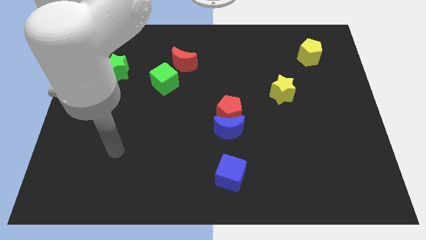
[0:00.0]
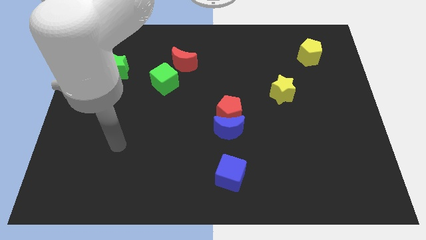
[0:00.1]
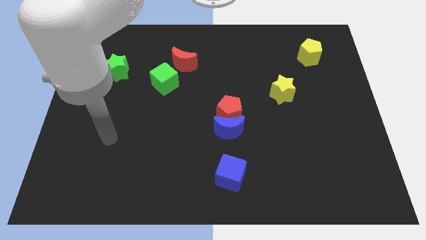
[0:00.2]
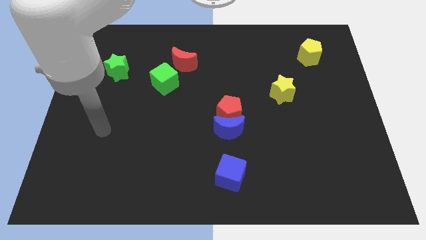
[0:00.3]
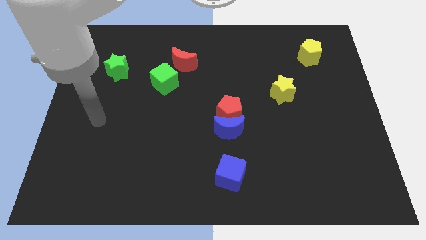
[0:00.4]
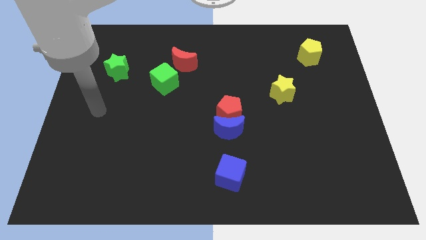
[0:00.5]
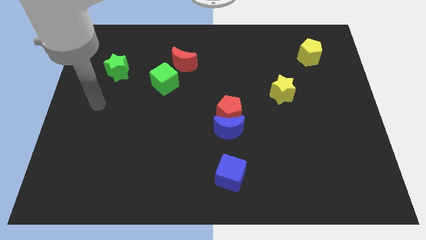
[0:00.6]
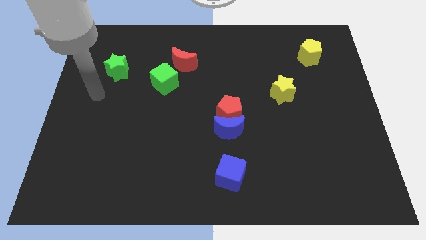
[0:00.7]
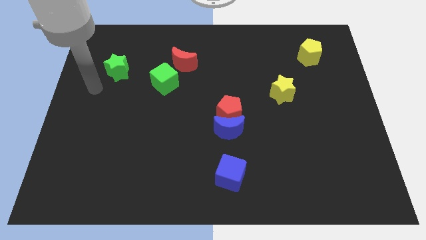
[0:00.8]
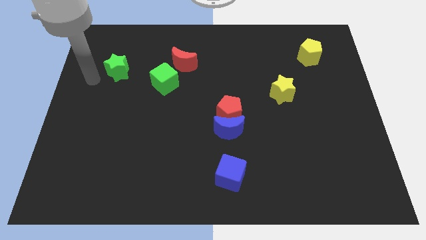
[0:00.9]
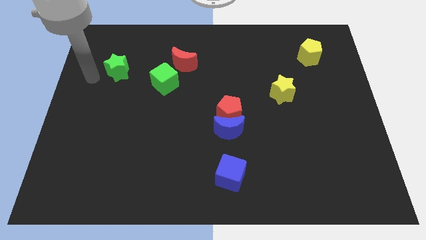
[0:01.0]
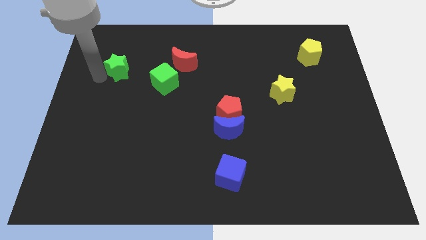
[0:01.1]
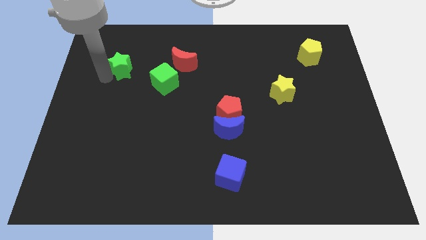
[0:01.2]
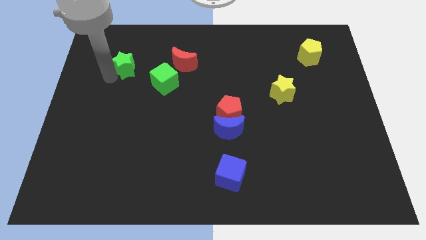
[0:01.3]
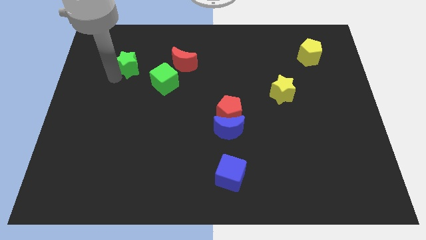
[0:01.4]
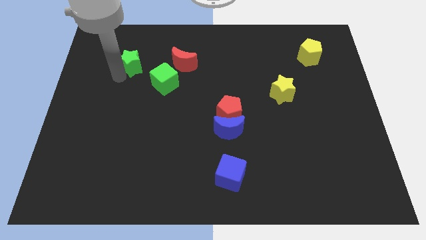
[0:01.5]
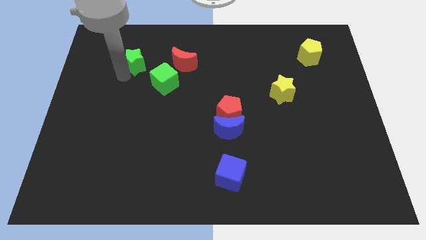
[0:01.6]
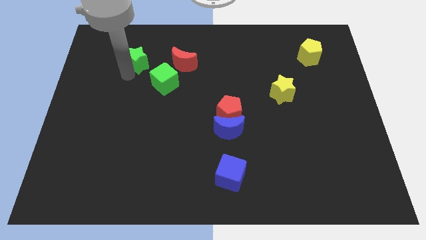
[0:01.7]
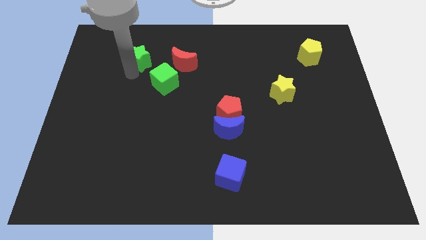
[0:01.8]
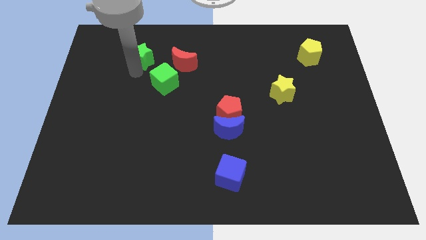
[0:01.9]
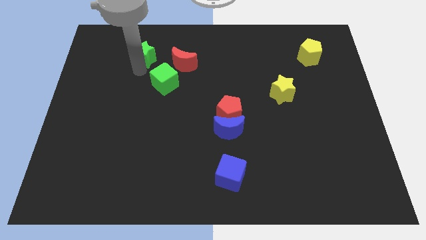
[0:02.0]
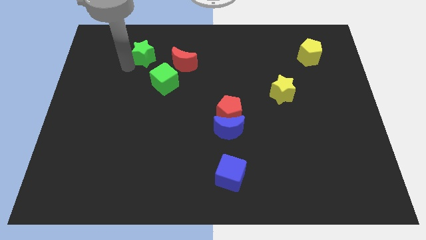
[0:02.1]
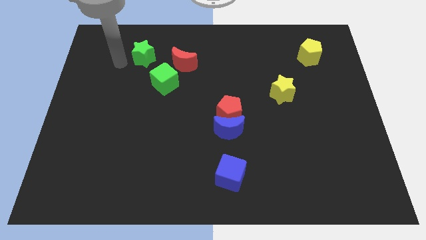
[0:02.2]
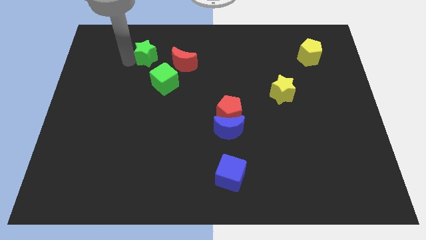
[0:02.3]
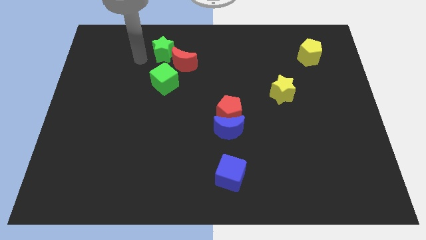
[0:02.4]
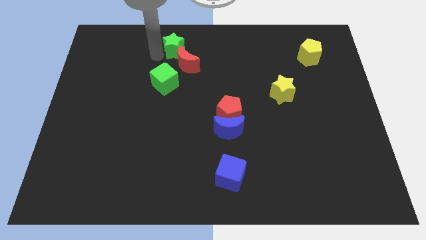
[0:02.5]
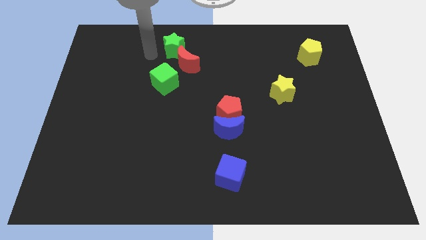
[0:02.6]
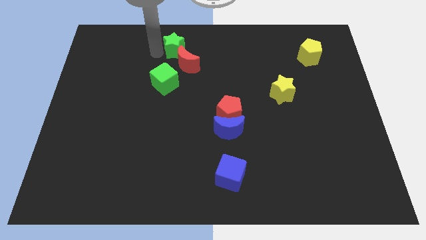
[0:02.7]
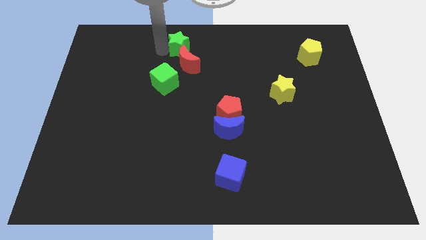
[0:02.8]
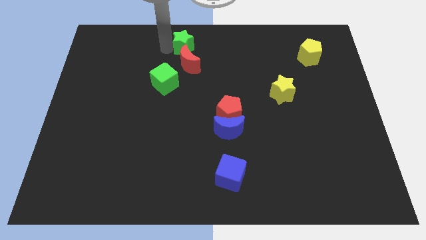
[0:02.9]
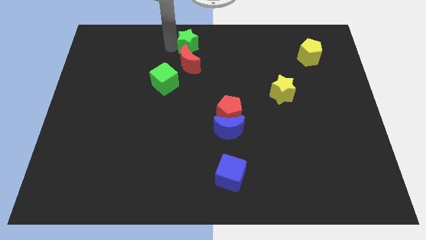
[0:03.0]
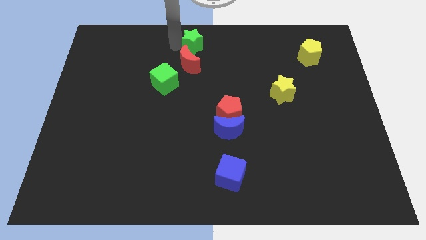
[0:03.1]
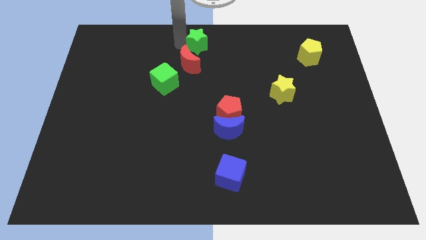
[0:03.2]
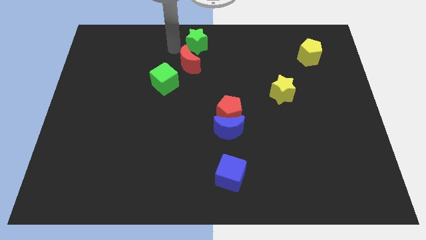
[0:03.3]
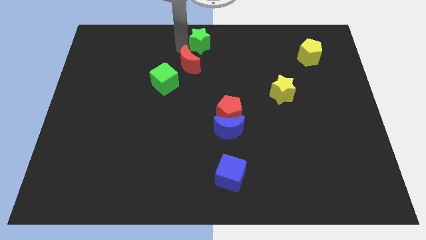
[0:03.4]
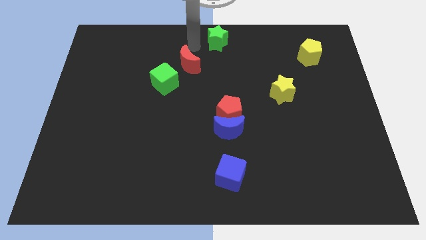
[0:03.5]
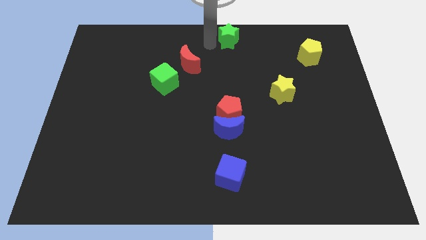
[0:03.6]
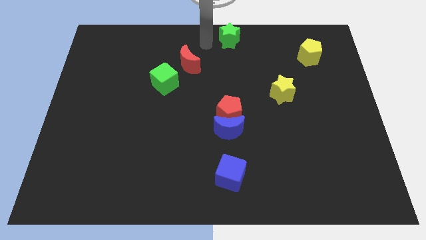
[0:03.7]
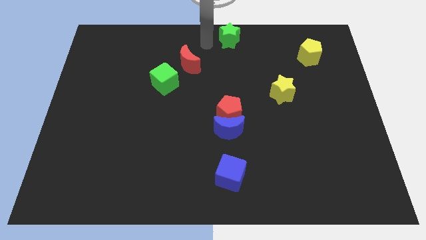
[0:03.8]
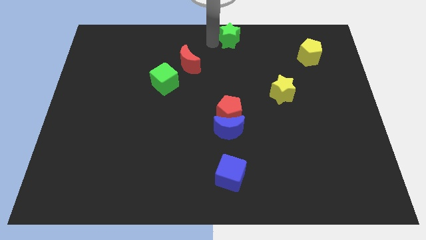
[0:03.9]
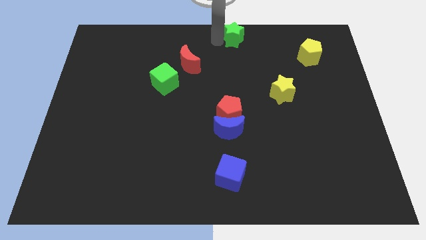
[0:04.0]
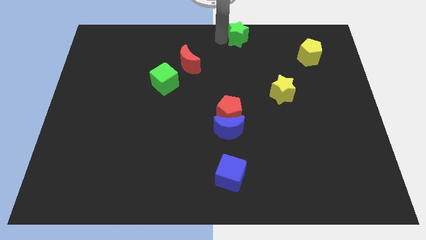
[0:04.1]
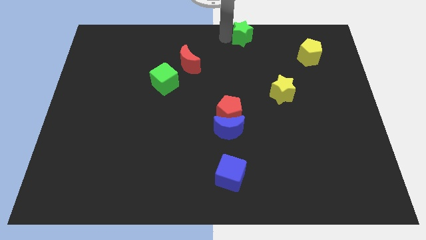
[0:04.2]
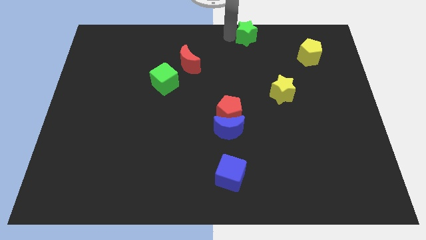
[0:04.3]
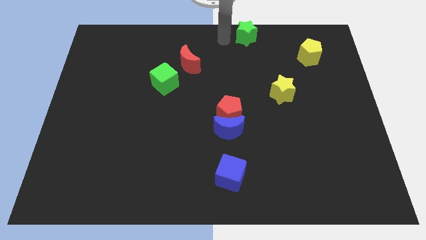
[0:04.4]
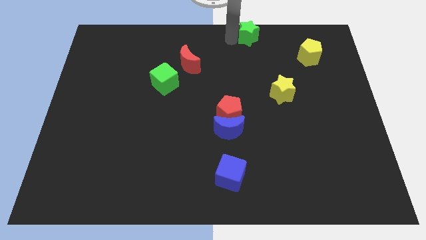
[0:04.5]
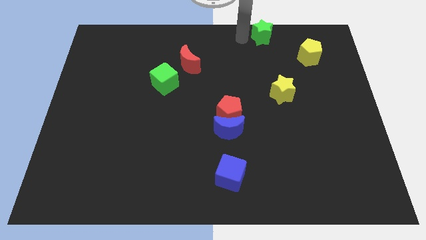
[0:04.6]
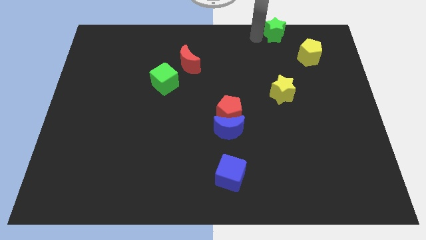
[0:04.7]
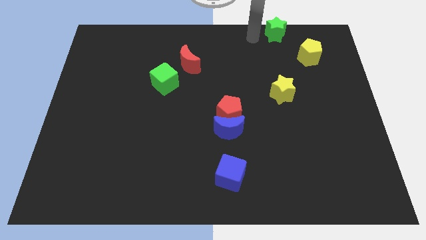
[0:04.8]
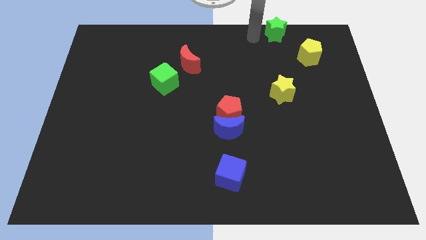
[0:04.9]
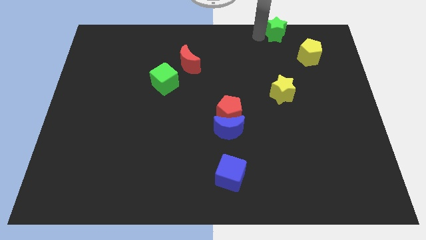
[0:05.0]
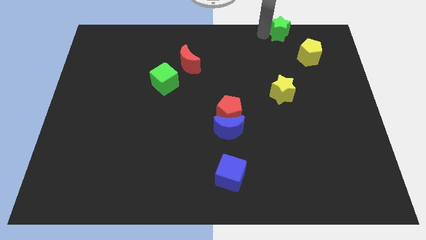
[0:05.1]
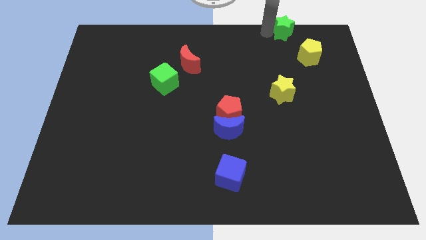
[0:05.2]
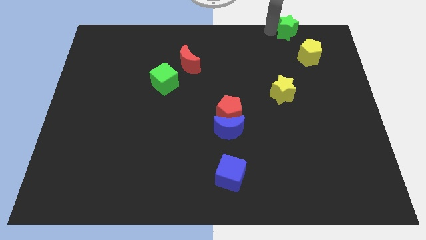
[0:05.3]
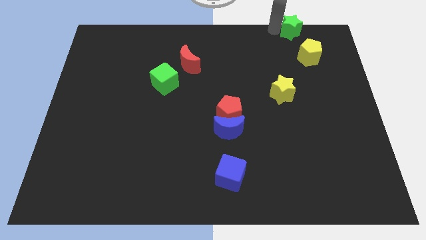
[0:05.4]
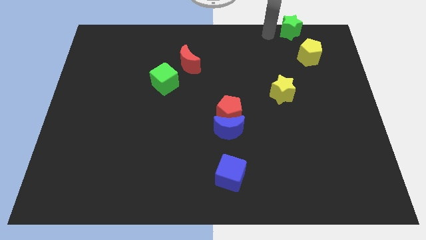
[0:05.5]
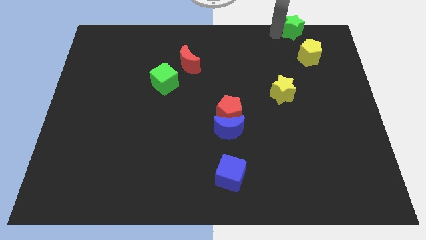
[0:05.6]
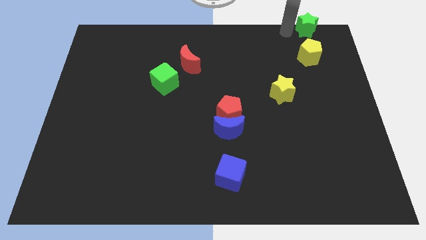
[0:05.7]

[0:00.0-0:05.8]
slide the green star to the top right of the board

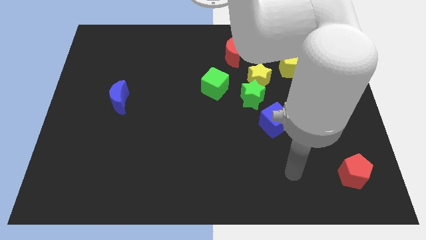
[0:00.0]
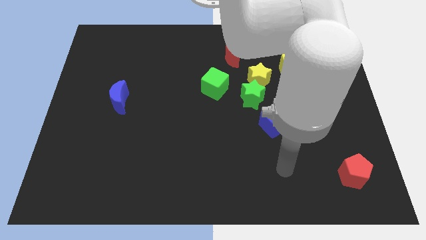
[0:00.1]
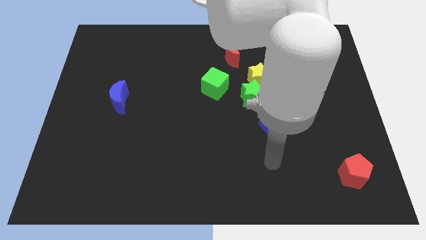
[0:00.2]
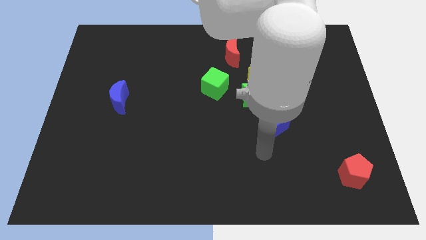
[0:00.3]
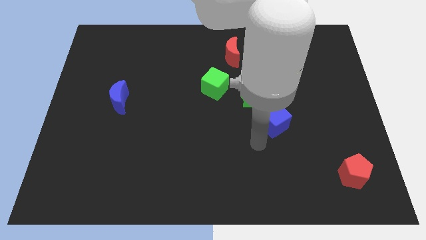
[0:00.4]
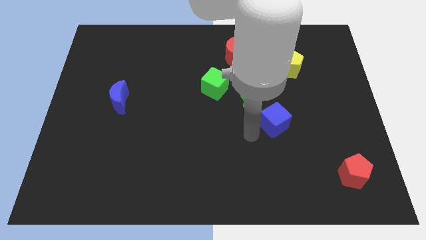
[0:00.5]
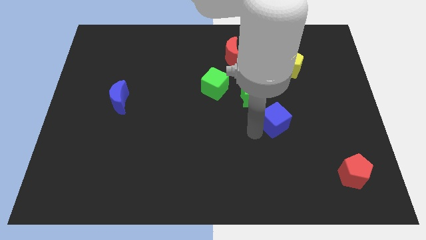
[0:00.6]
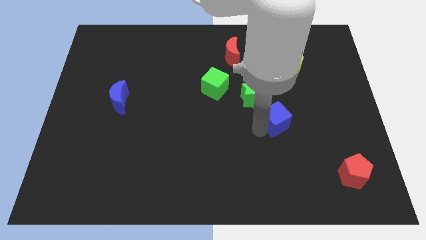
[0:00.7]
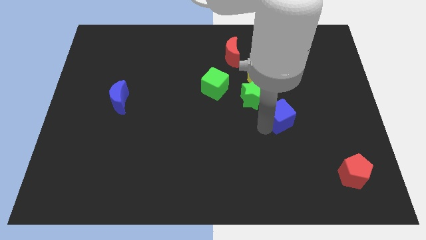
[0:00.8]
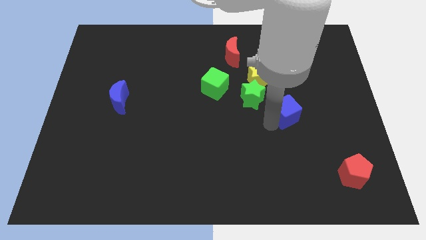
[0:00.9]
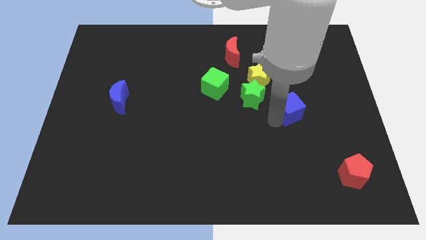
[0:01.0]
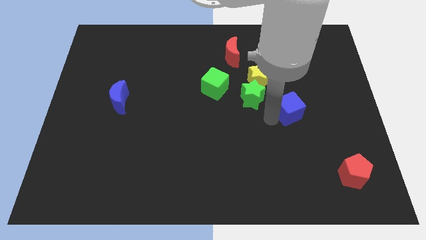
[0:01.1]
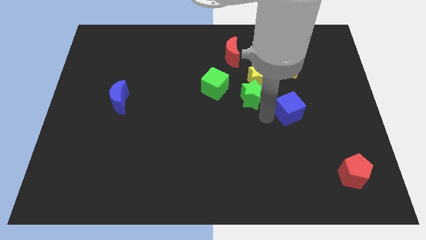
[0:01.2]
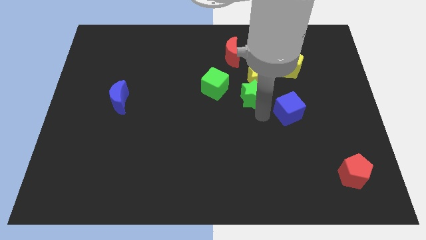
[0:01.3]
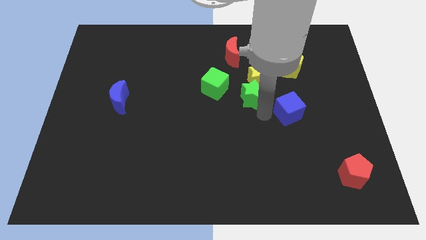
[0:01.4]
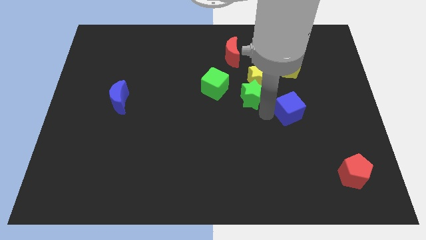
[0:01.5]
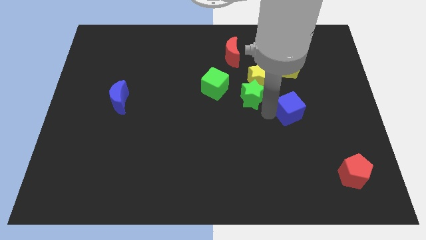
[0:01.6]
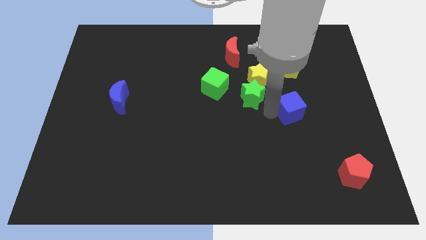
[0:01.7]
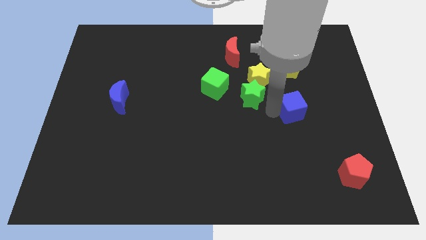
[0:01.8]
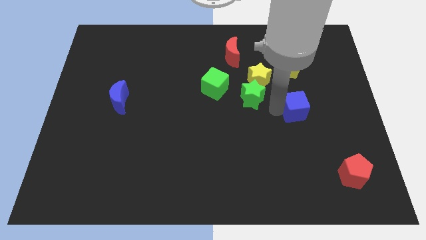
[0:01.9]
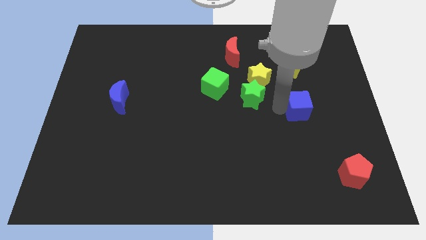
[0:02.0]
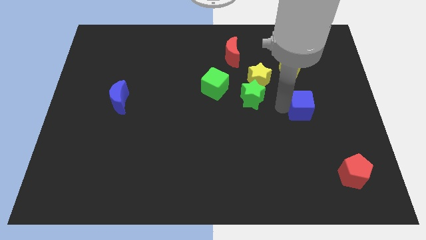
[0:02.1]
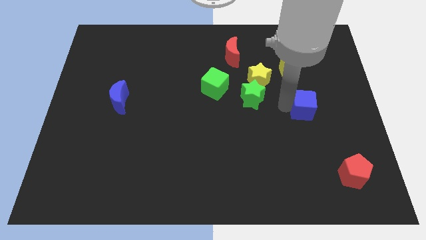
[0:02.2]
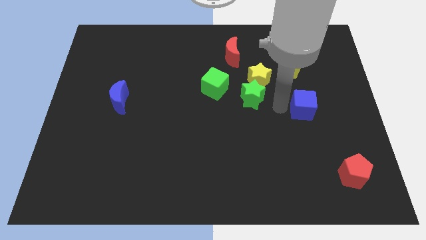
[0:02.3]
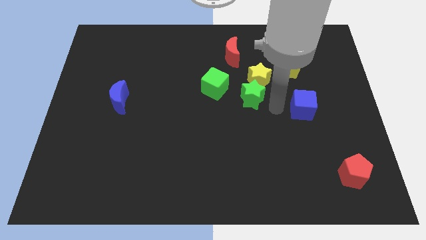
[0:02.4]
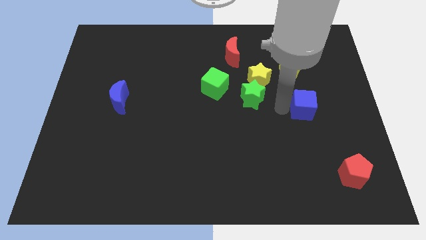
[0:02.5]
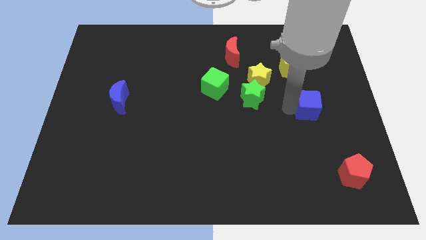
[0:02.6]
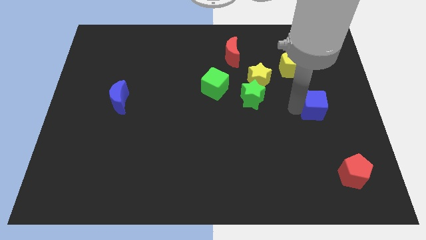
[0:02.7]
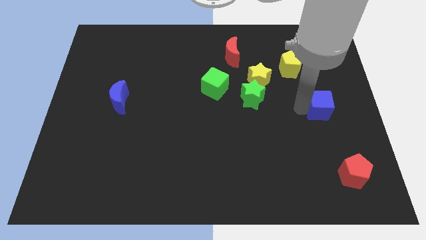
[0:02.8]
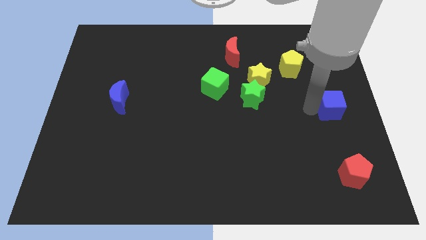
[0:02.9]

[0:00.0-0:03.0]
push the blue cube to the right side of the board
